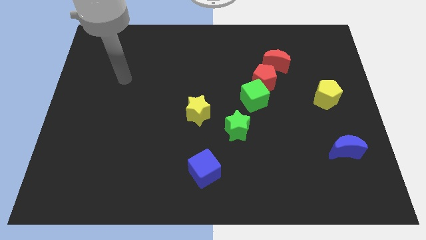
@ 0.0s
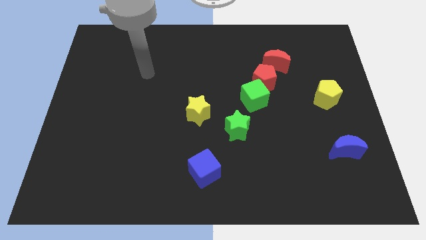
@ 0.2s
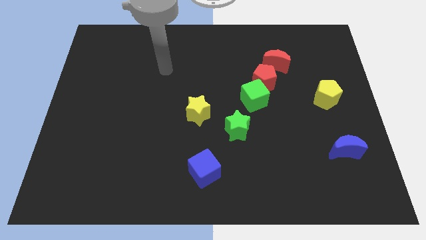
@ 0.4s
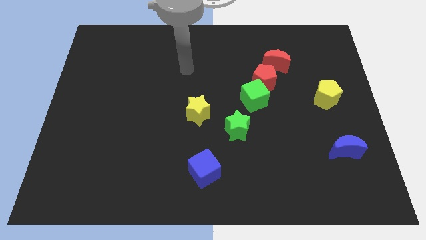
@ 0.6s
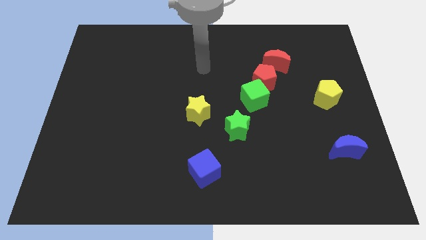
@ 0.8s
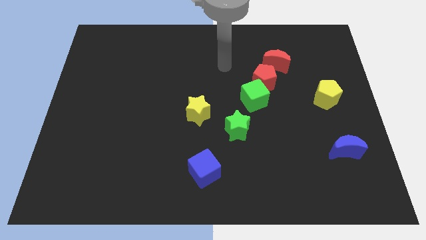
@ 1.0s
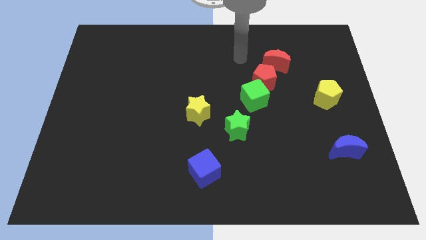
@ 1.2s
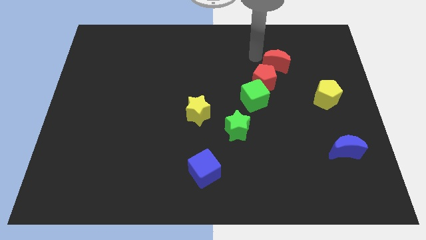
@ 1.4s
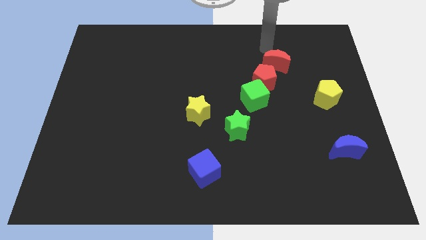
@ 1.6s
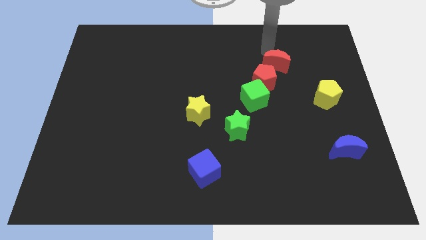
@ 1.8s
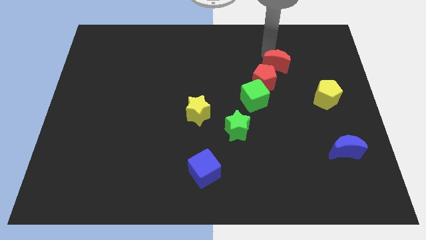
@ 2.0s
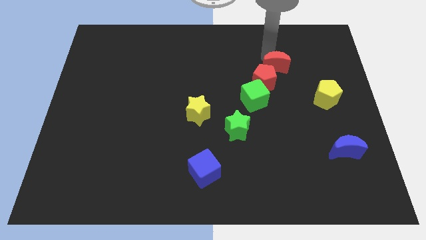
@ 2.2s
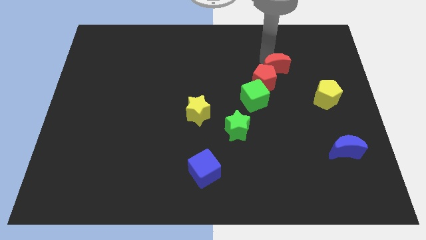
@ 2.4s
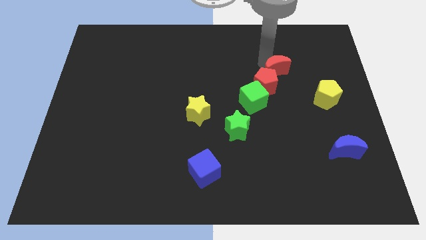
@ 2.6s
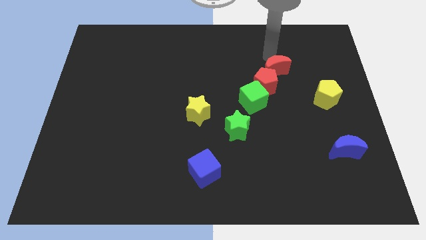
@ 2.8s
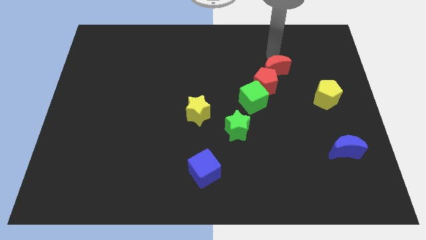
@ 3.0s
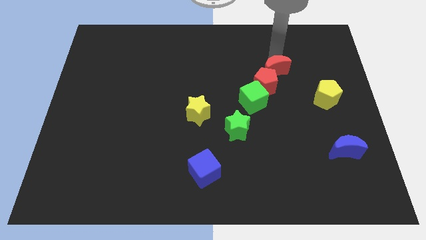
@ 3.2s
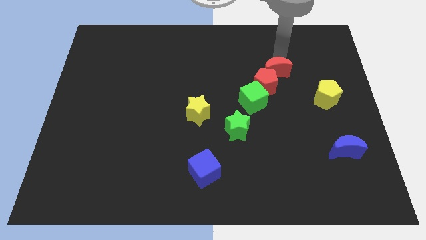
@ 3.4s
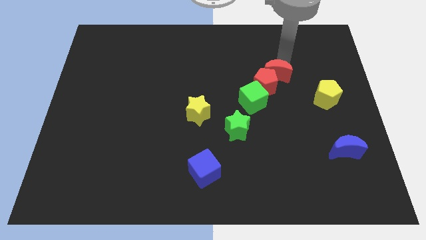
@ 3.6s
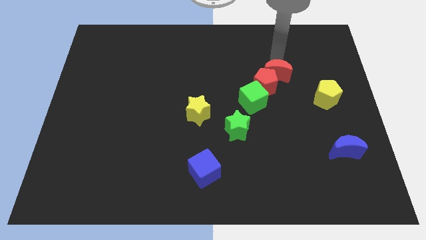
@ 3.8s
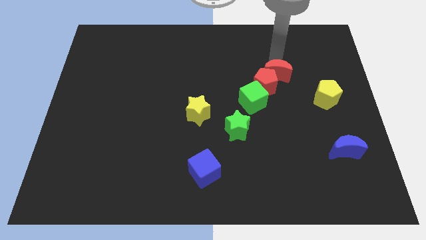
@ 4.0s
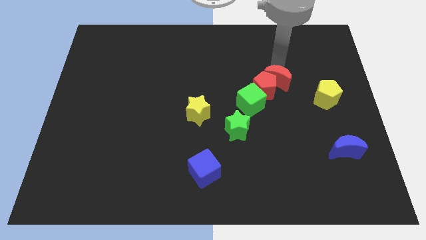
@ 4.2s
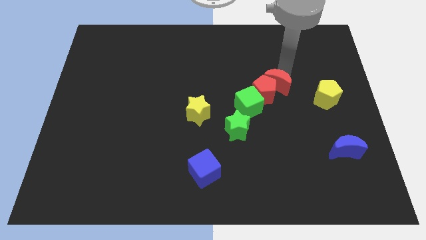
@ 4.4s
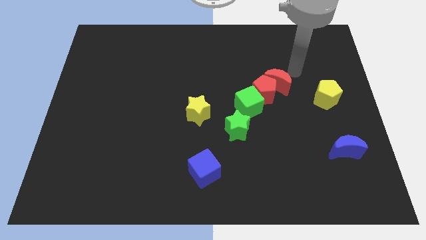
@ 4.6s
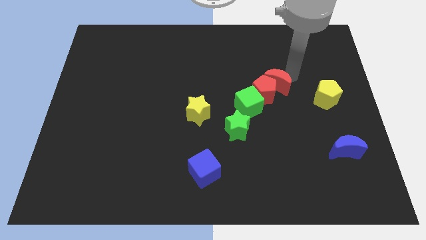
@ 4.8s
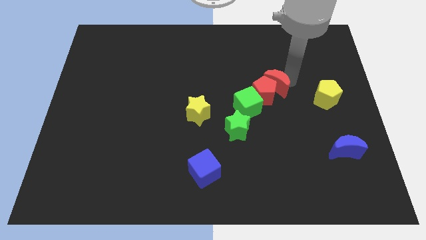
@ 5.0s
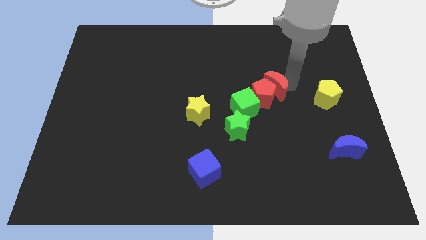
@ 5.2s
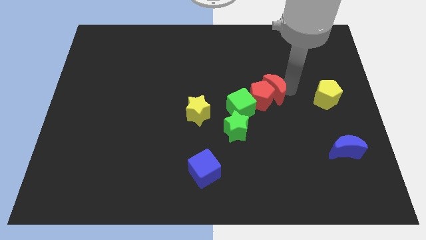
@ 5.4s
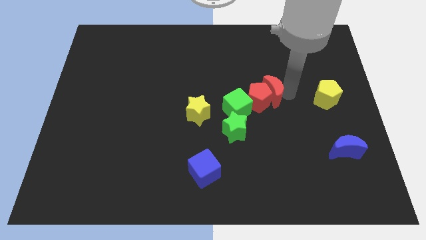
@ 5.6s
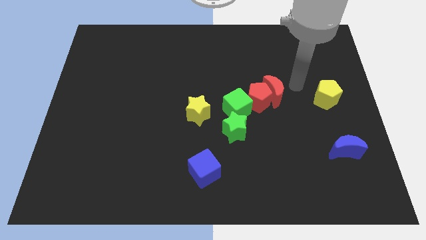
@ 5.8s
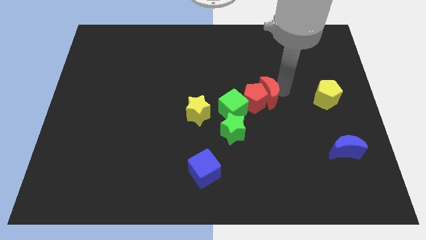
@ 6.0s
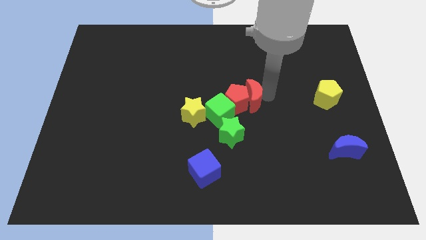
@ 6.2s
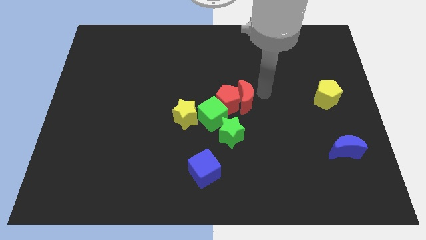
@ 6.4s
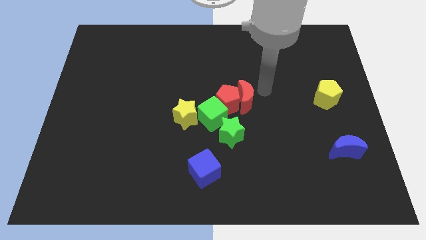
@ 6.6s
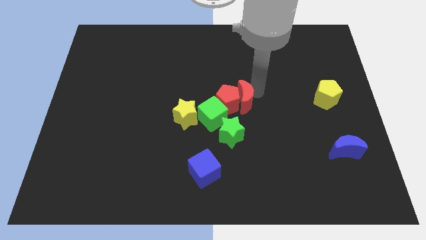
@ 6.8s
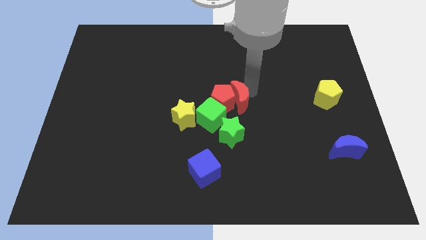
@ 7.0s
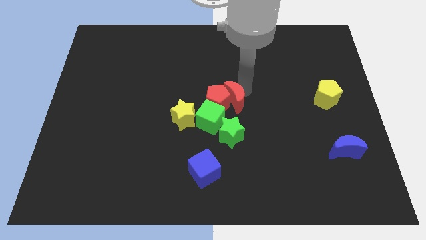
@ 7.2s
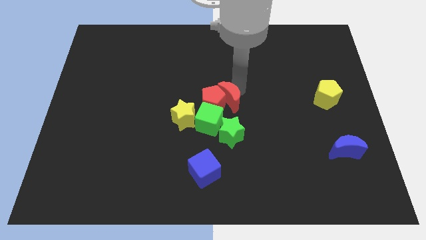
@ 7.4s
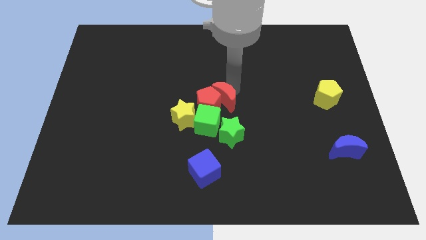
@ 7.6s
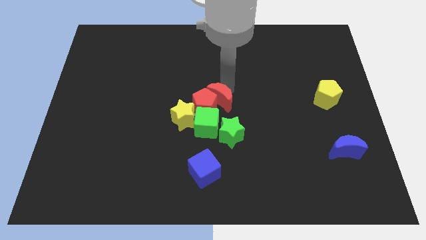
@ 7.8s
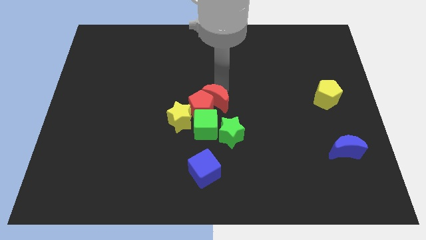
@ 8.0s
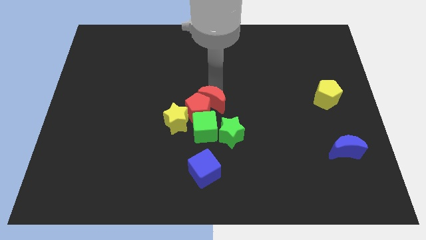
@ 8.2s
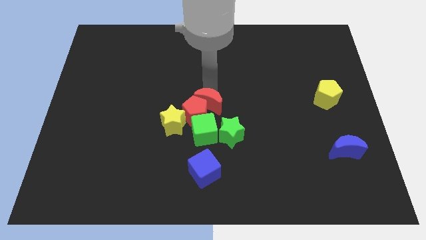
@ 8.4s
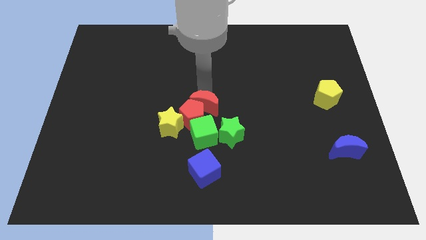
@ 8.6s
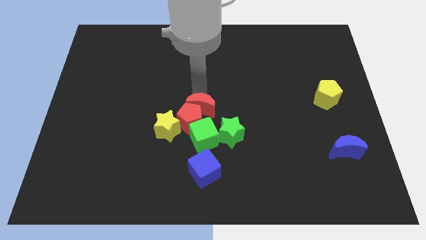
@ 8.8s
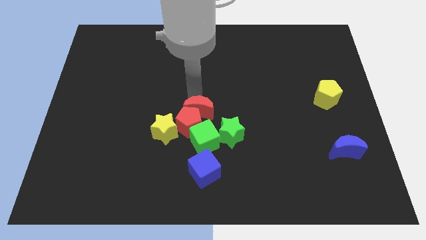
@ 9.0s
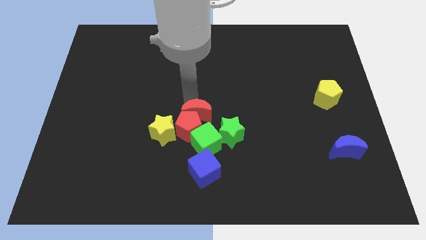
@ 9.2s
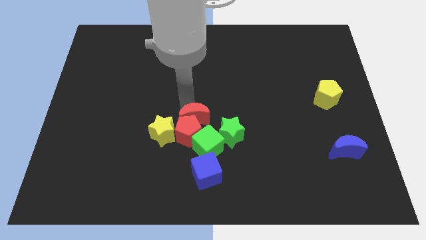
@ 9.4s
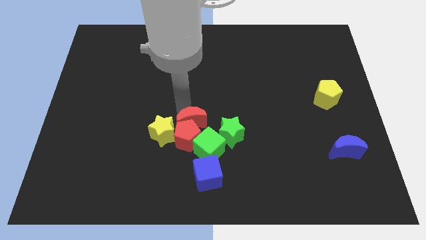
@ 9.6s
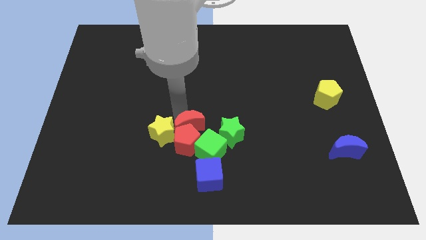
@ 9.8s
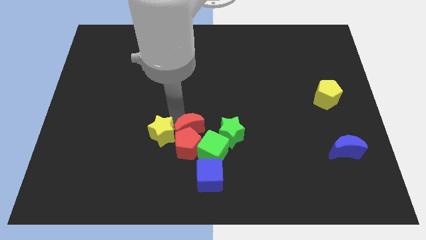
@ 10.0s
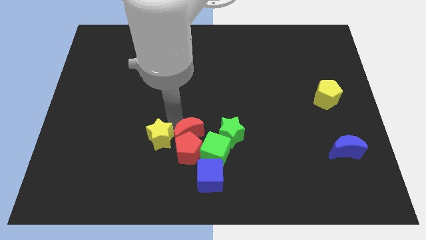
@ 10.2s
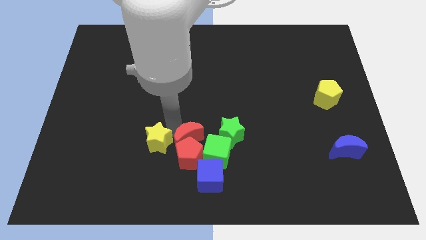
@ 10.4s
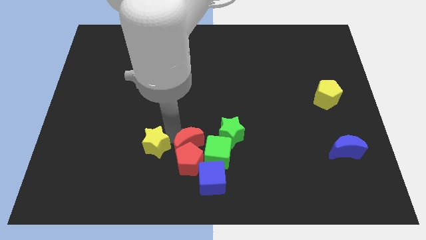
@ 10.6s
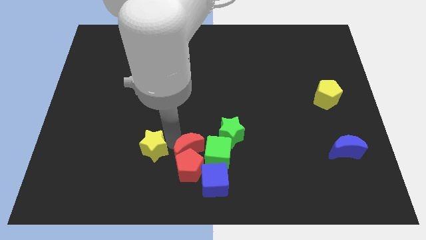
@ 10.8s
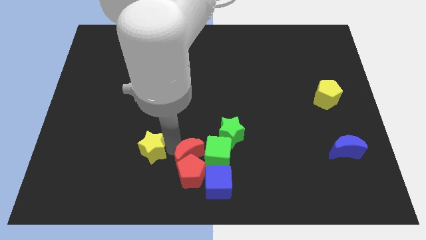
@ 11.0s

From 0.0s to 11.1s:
move the red moon towards the green cube

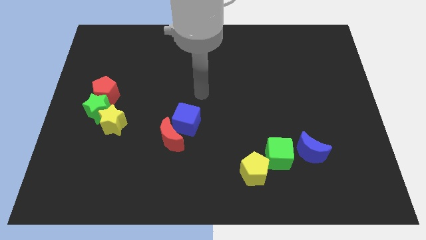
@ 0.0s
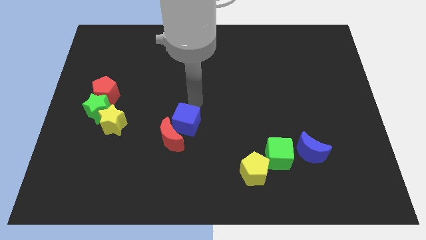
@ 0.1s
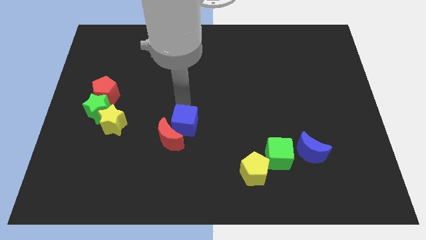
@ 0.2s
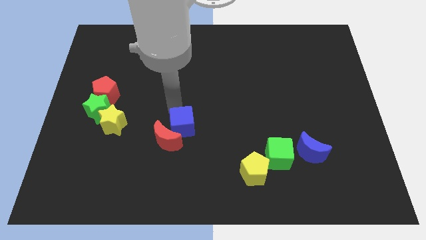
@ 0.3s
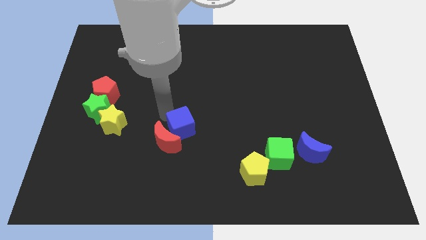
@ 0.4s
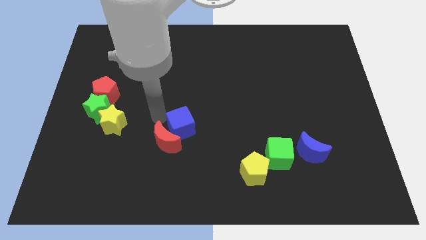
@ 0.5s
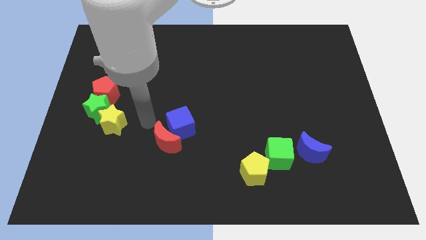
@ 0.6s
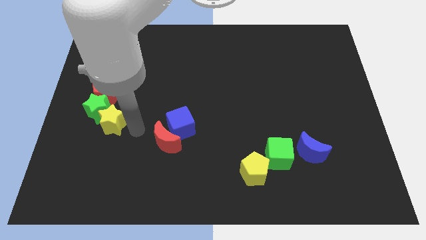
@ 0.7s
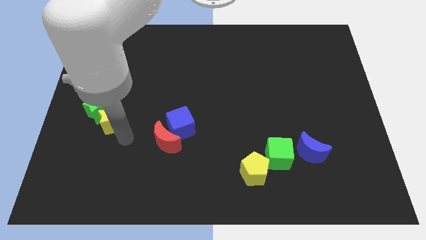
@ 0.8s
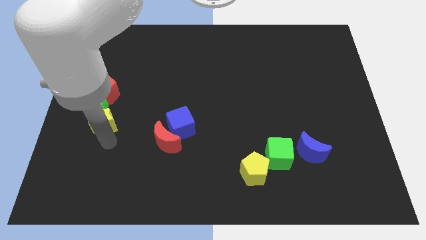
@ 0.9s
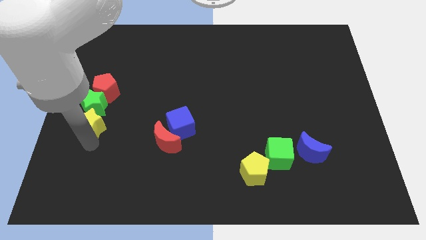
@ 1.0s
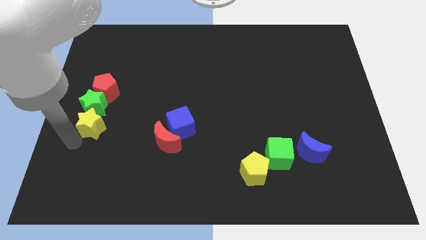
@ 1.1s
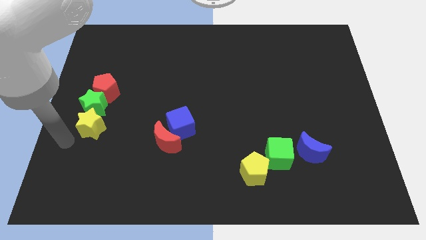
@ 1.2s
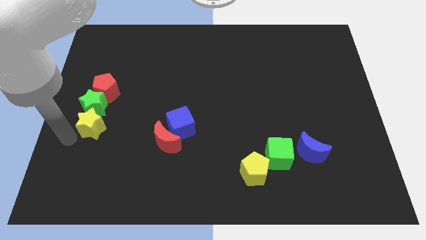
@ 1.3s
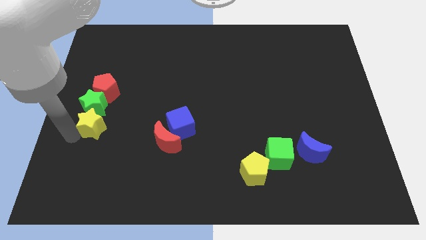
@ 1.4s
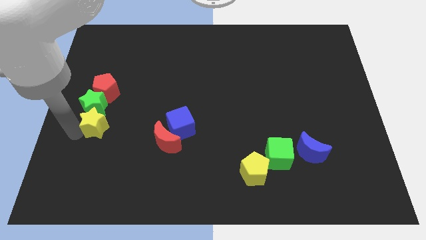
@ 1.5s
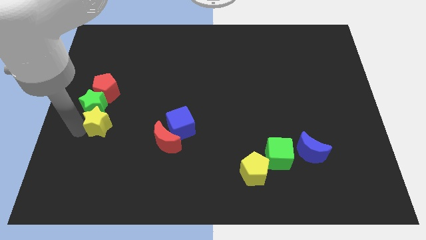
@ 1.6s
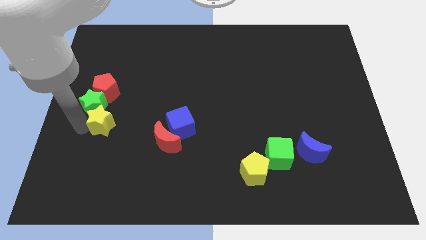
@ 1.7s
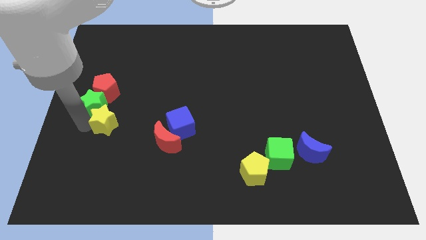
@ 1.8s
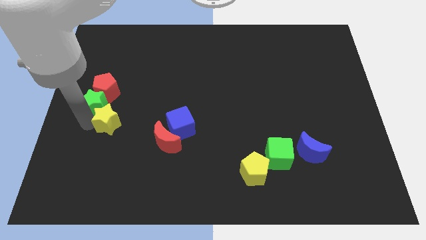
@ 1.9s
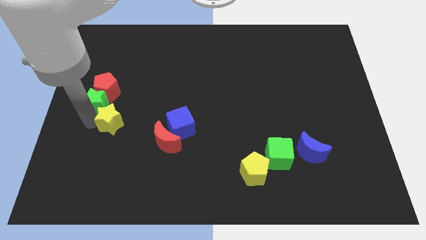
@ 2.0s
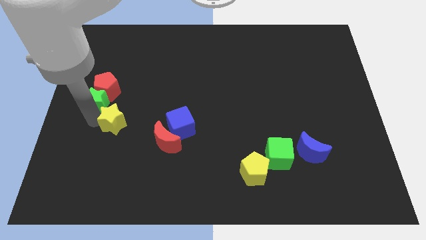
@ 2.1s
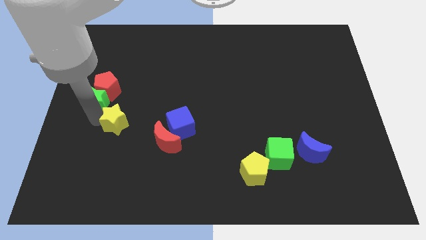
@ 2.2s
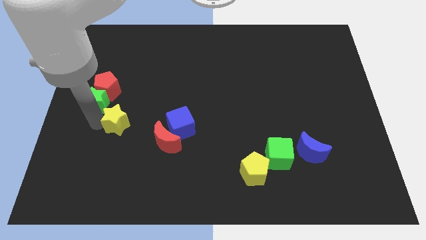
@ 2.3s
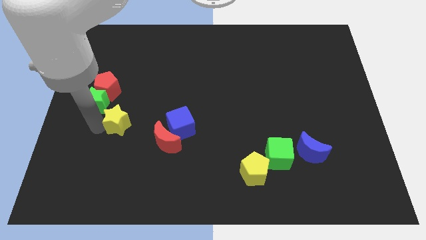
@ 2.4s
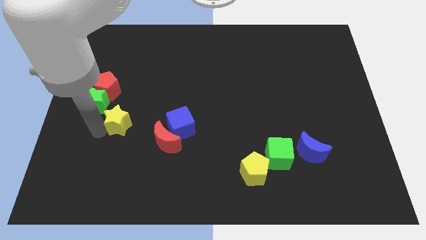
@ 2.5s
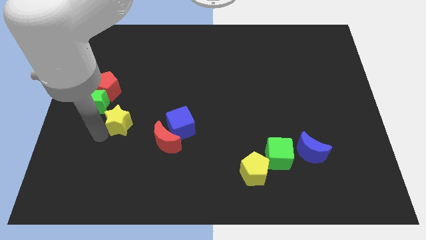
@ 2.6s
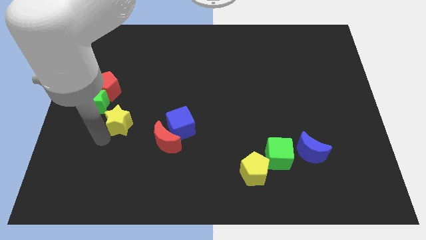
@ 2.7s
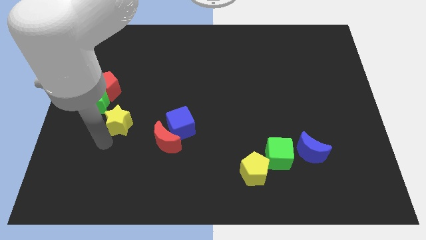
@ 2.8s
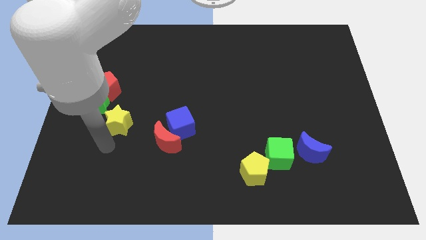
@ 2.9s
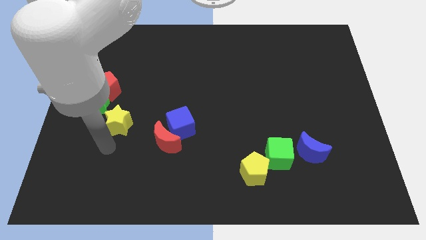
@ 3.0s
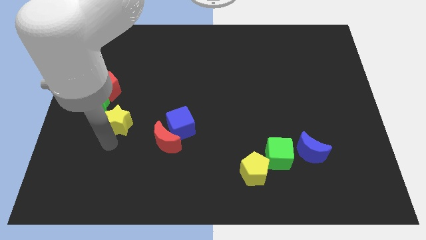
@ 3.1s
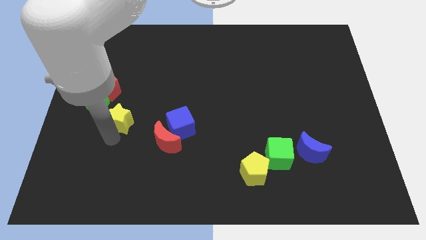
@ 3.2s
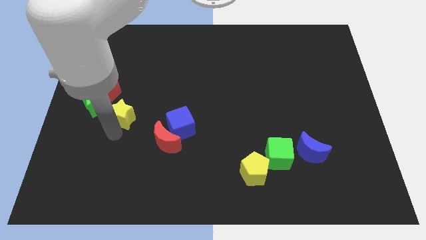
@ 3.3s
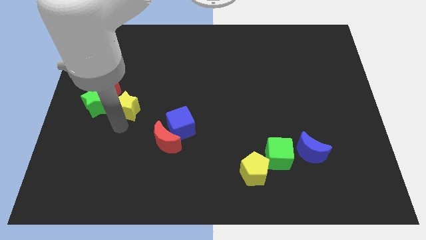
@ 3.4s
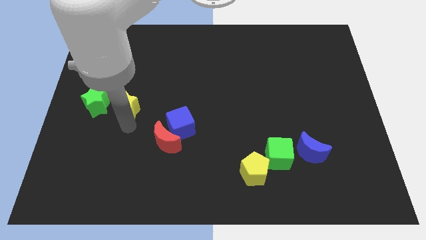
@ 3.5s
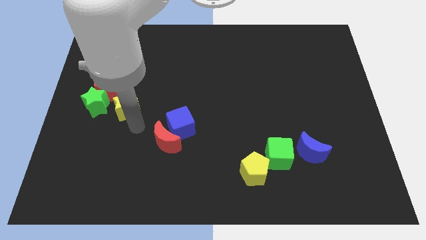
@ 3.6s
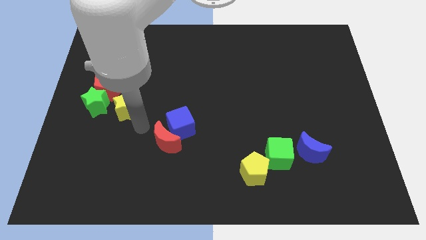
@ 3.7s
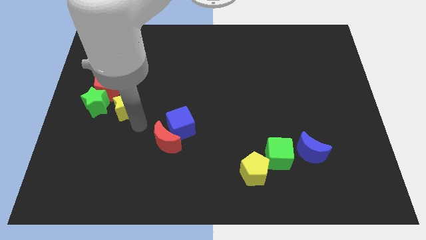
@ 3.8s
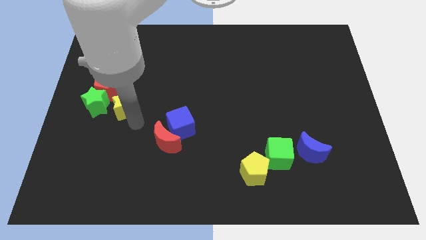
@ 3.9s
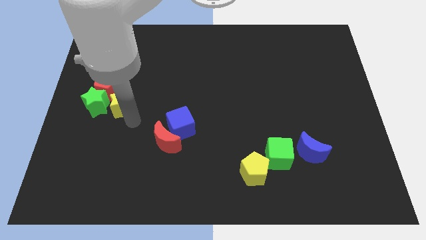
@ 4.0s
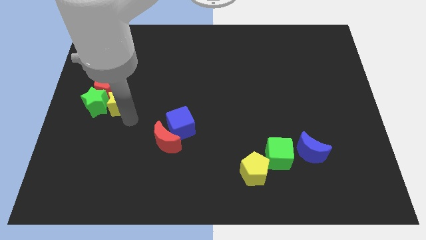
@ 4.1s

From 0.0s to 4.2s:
push the yellow star towards the red pentagon
